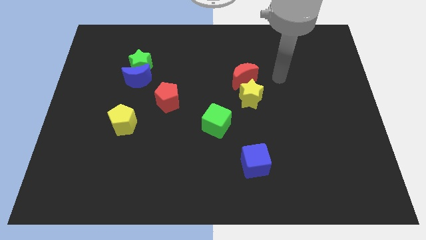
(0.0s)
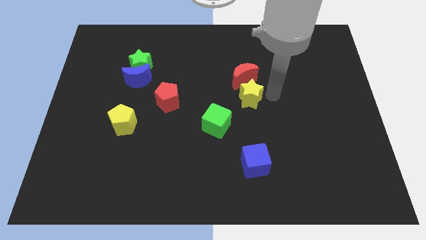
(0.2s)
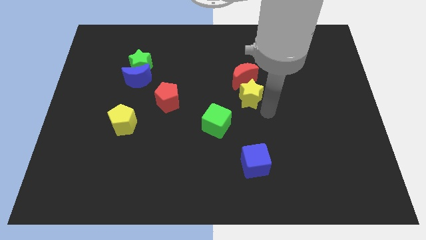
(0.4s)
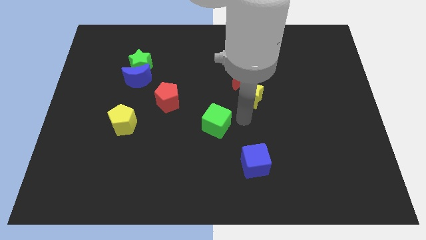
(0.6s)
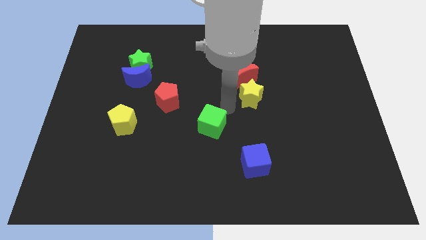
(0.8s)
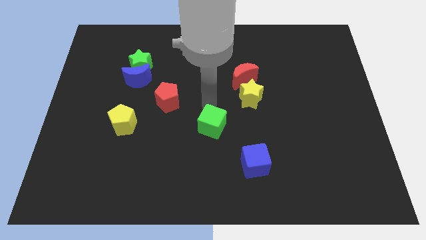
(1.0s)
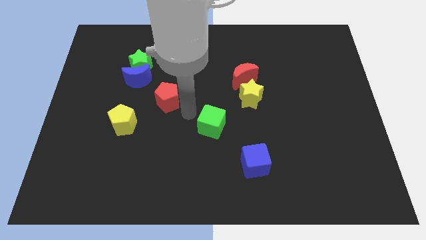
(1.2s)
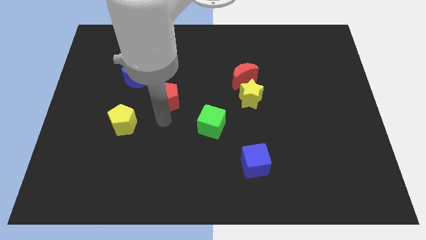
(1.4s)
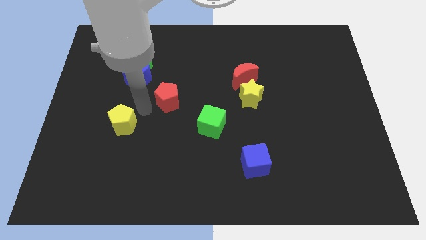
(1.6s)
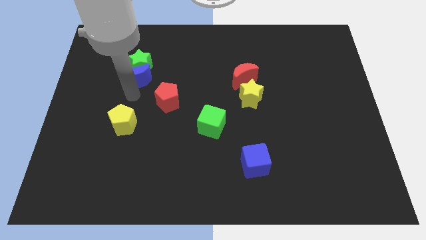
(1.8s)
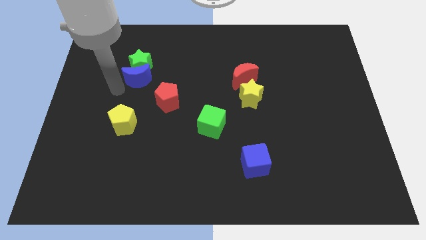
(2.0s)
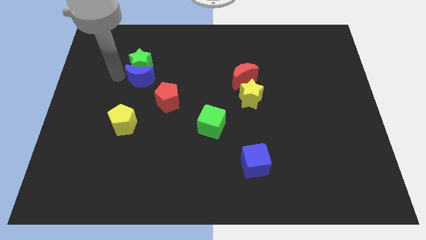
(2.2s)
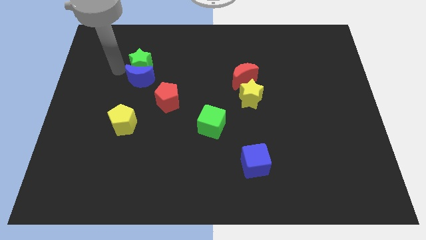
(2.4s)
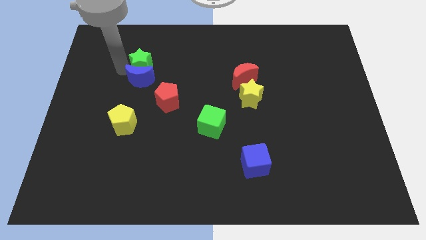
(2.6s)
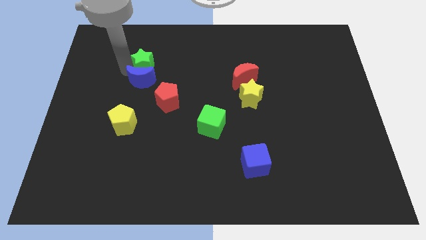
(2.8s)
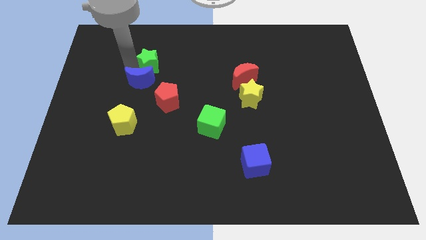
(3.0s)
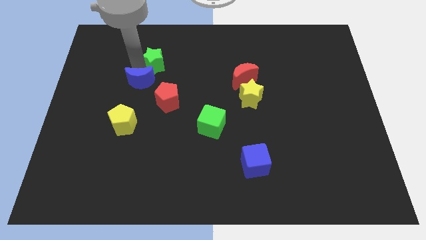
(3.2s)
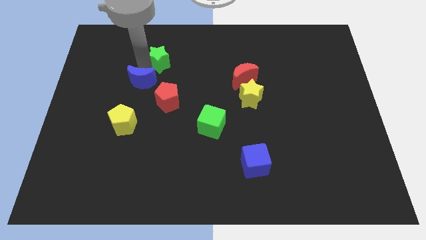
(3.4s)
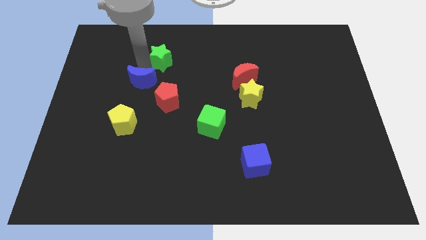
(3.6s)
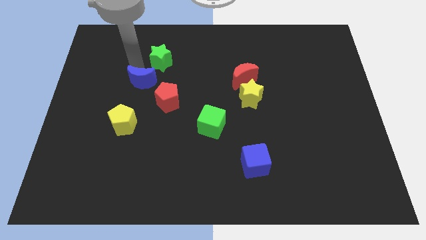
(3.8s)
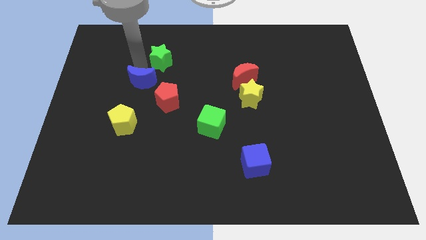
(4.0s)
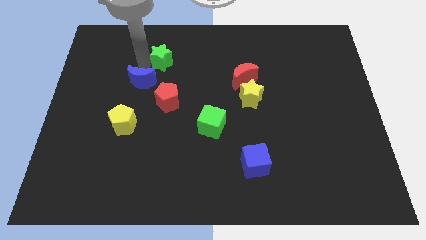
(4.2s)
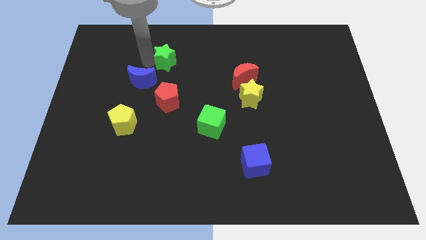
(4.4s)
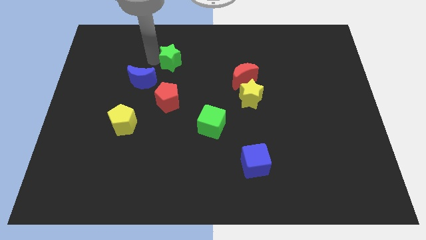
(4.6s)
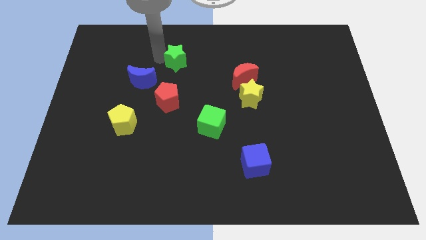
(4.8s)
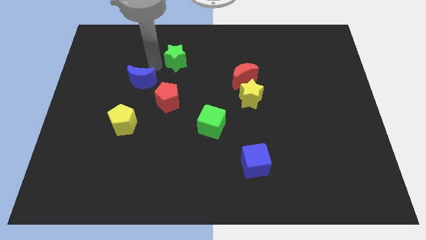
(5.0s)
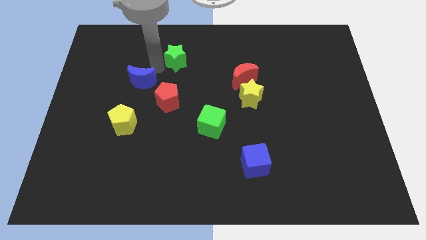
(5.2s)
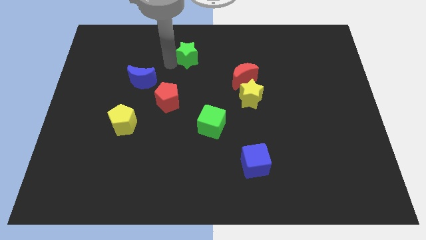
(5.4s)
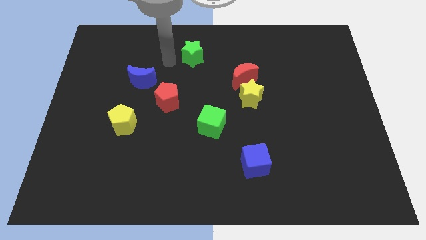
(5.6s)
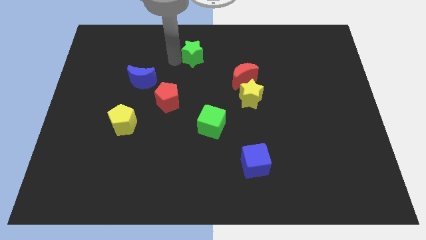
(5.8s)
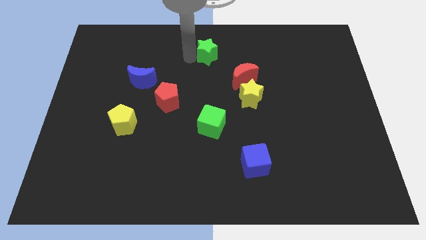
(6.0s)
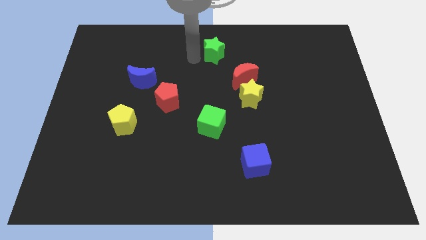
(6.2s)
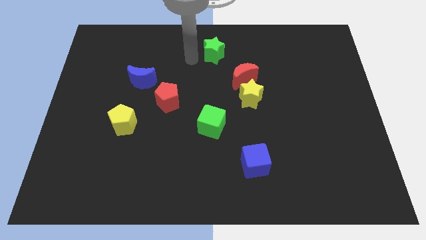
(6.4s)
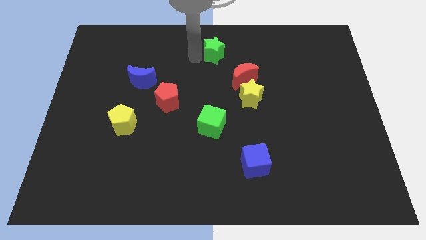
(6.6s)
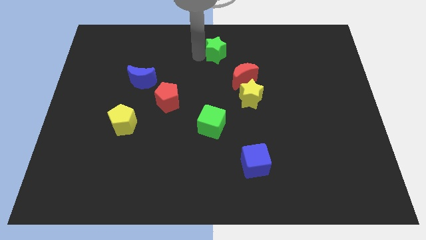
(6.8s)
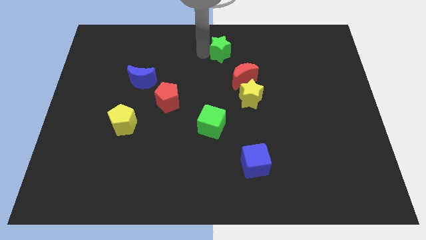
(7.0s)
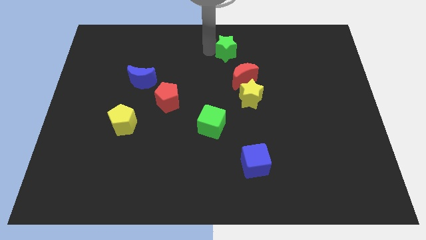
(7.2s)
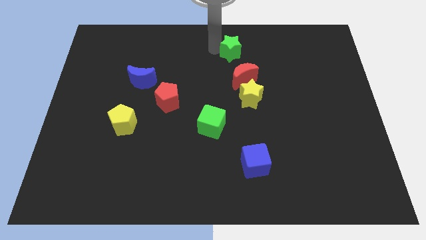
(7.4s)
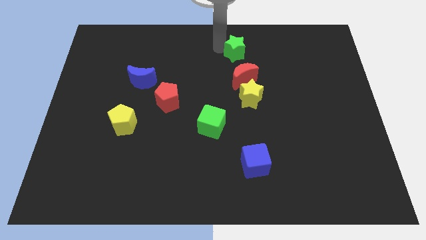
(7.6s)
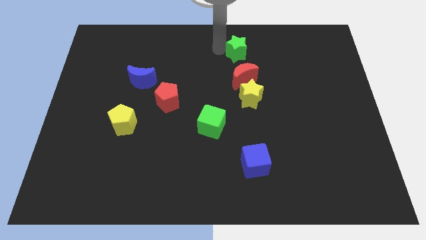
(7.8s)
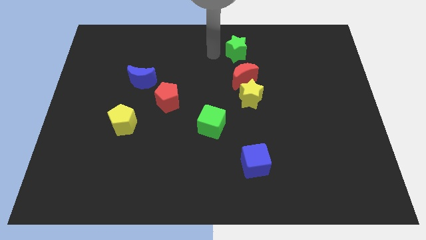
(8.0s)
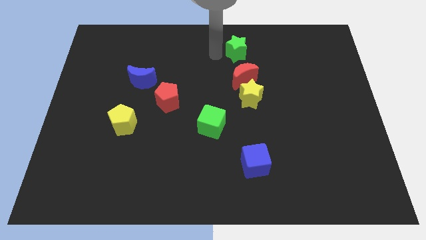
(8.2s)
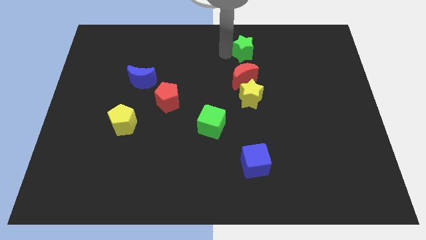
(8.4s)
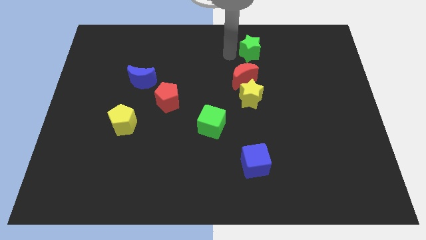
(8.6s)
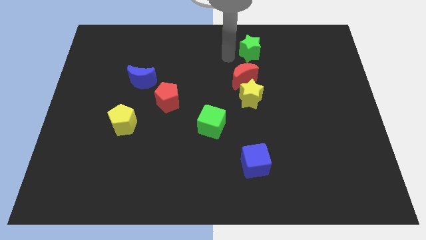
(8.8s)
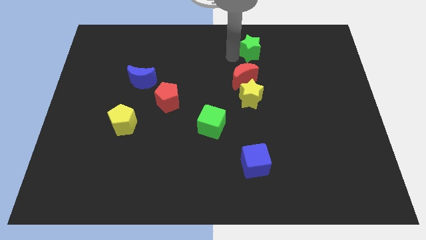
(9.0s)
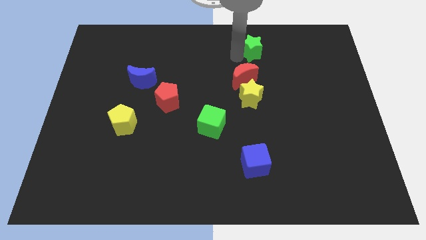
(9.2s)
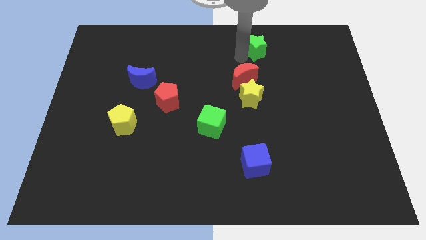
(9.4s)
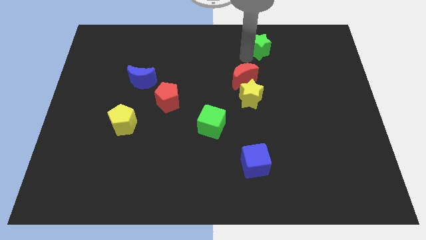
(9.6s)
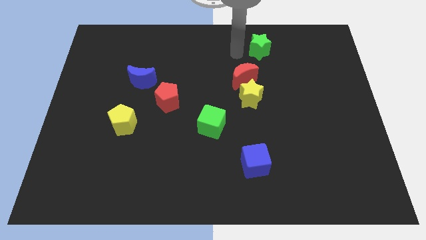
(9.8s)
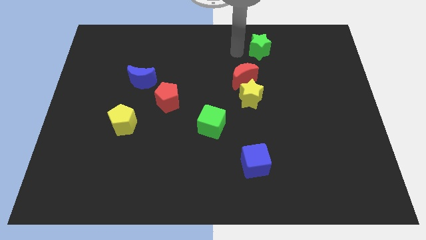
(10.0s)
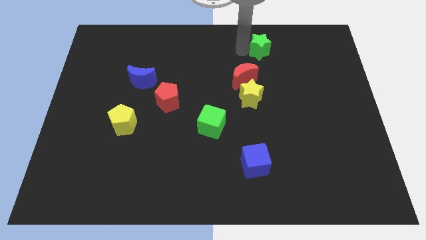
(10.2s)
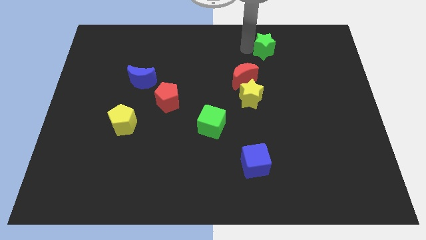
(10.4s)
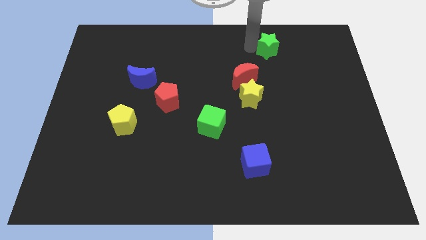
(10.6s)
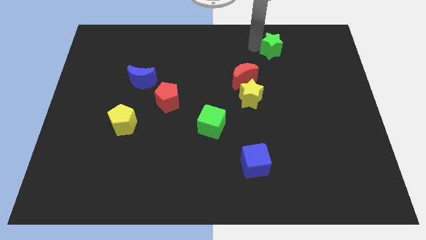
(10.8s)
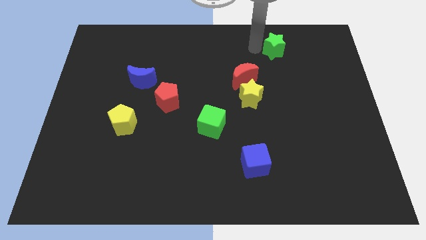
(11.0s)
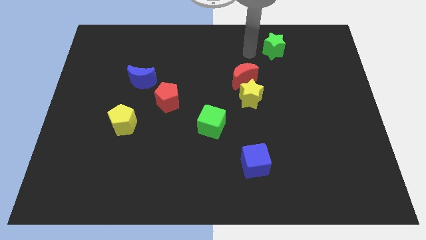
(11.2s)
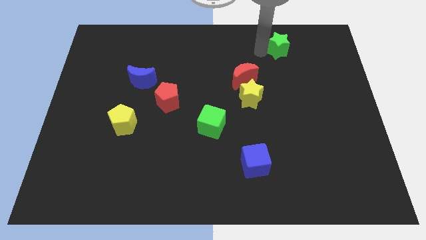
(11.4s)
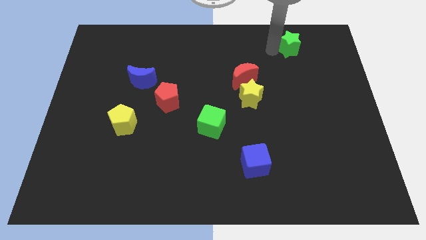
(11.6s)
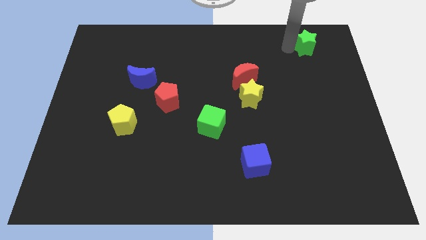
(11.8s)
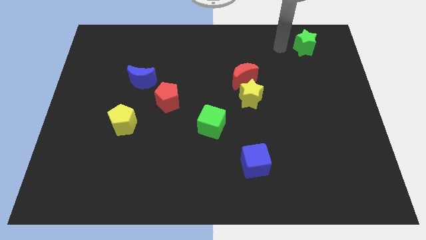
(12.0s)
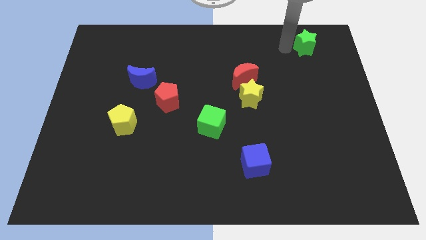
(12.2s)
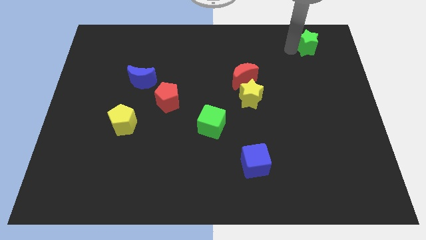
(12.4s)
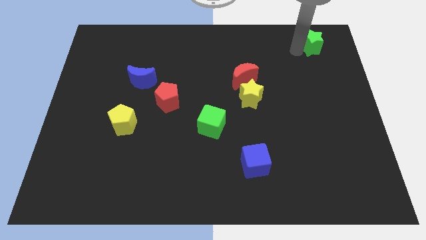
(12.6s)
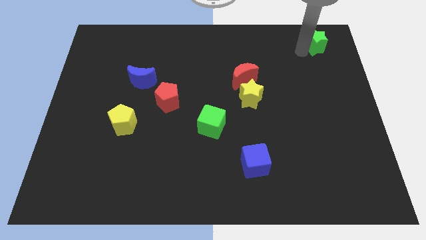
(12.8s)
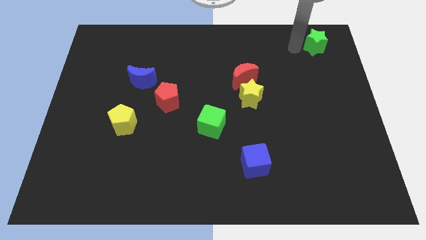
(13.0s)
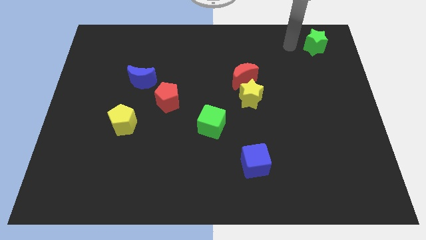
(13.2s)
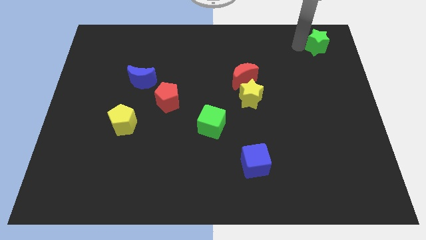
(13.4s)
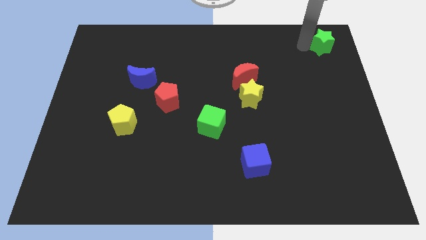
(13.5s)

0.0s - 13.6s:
move the green star to the top right corner
